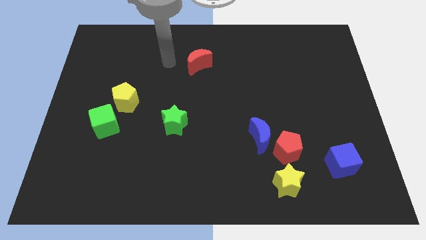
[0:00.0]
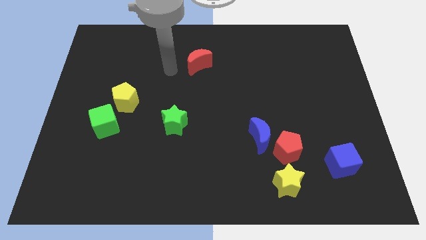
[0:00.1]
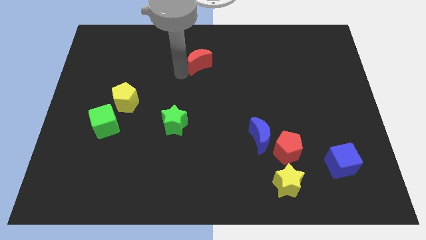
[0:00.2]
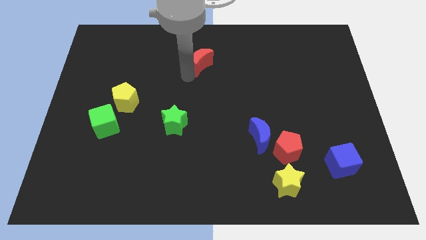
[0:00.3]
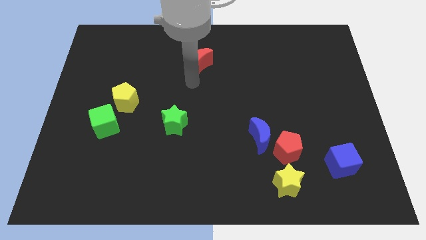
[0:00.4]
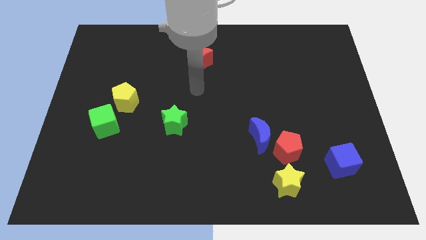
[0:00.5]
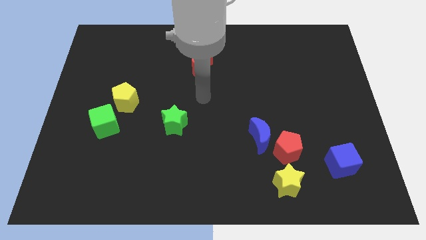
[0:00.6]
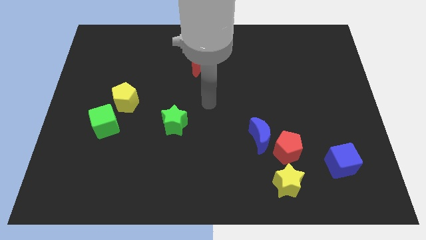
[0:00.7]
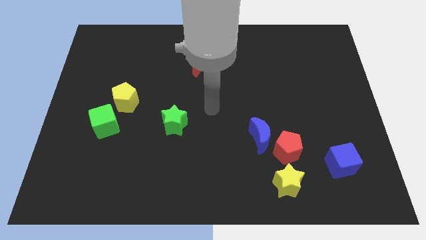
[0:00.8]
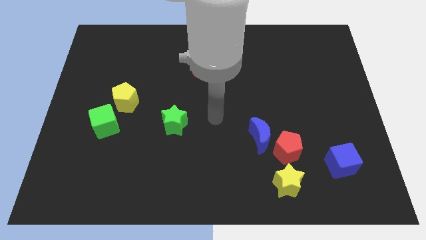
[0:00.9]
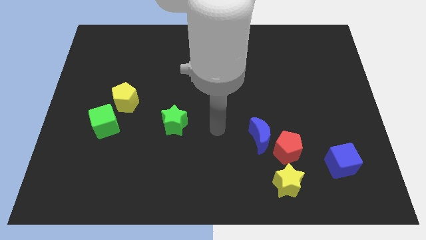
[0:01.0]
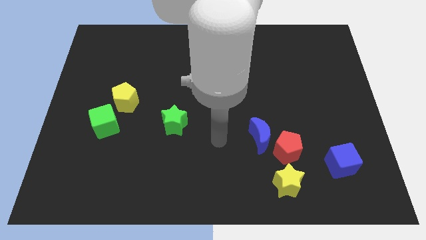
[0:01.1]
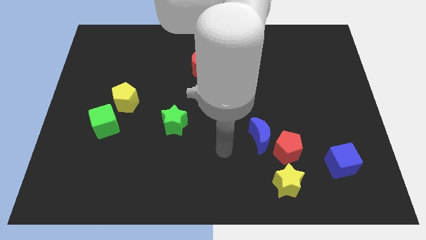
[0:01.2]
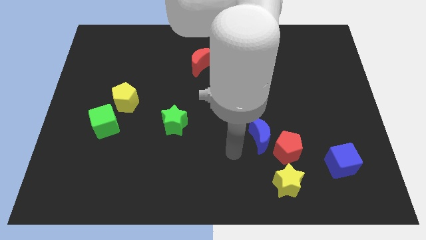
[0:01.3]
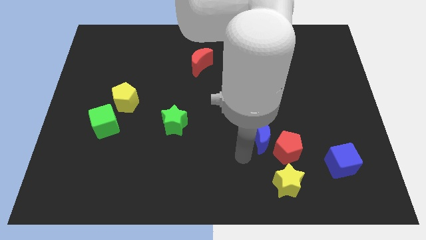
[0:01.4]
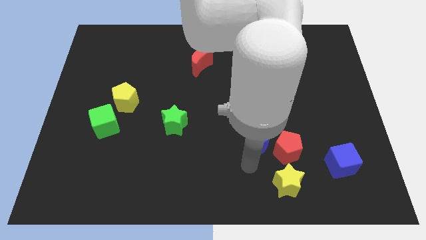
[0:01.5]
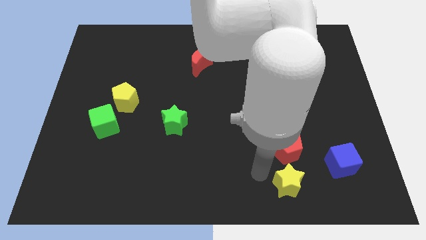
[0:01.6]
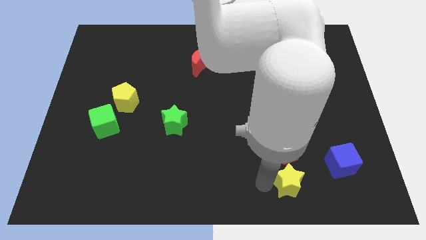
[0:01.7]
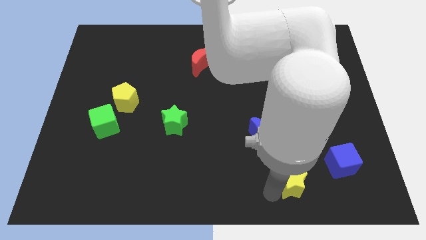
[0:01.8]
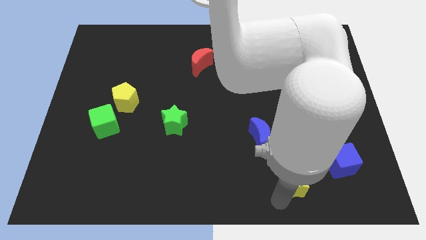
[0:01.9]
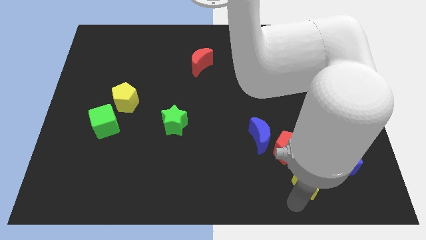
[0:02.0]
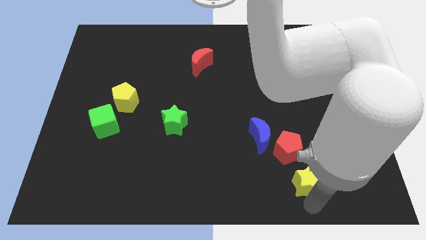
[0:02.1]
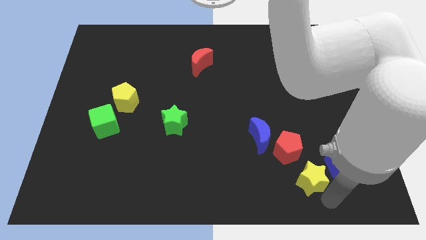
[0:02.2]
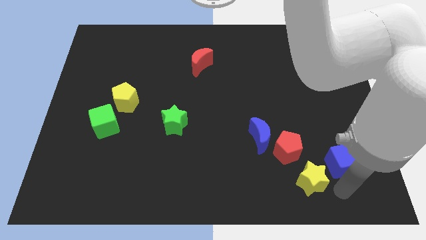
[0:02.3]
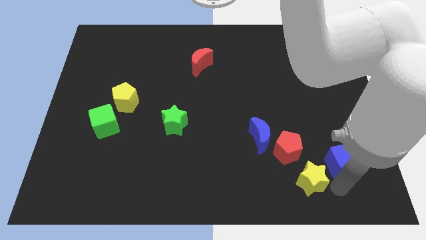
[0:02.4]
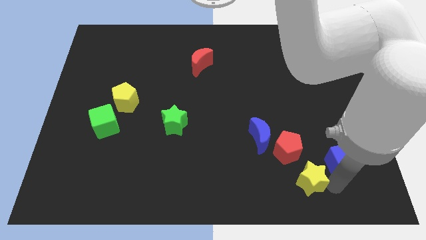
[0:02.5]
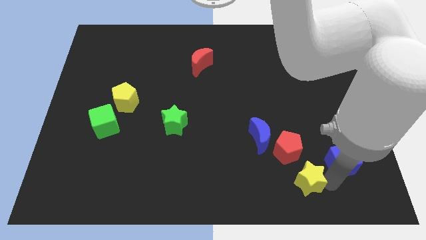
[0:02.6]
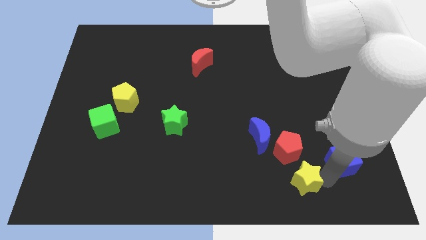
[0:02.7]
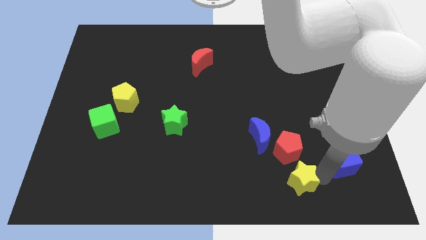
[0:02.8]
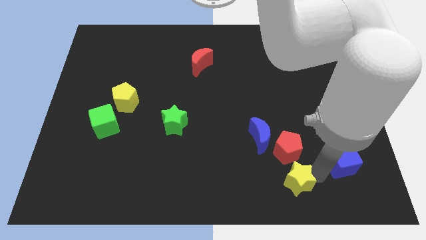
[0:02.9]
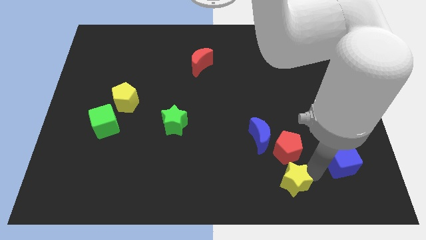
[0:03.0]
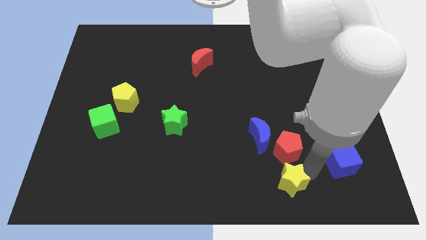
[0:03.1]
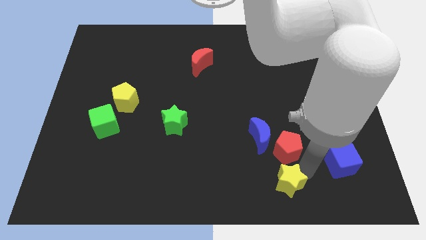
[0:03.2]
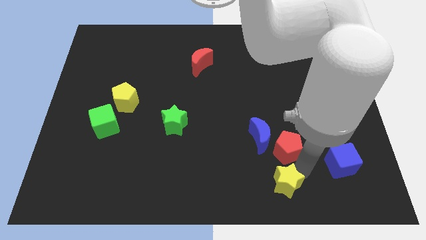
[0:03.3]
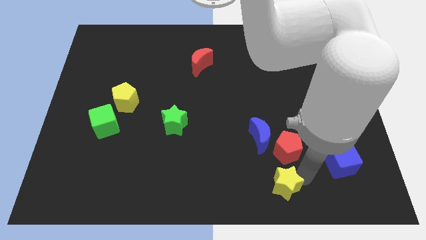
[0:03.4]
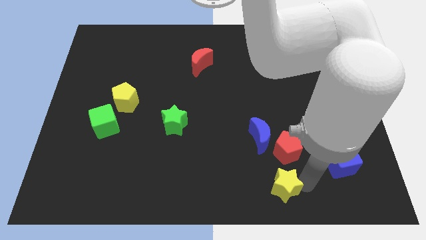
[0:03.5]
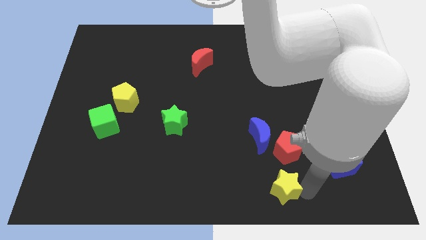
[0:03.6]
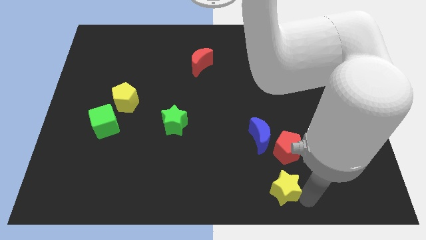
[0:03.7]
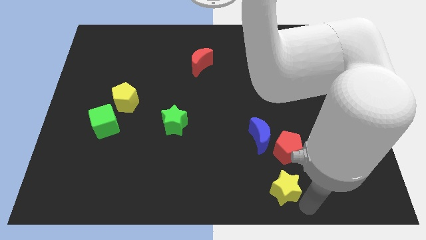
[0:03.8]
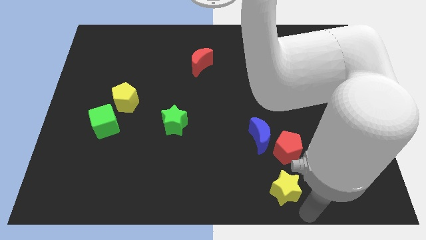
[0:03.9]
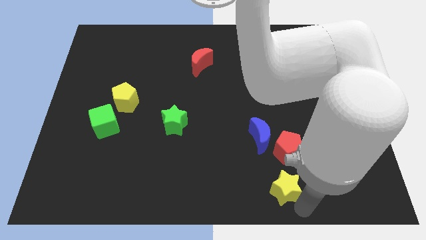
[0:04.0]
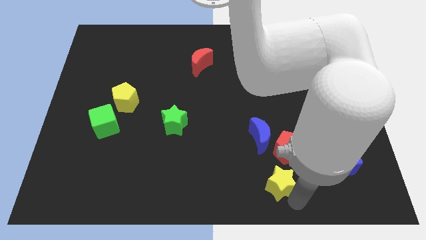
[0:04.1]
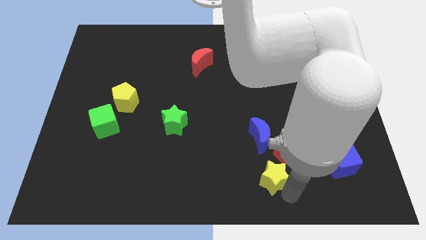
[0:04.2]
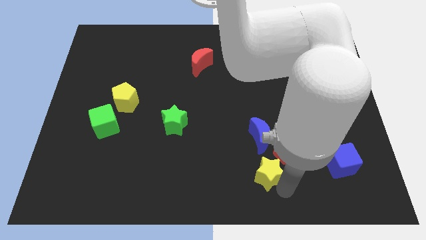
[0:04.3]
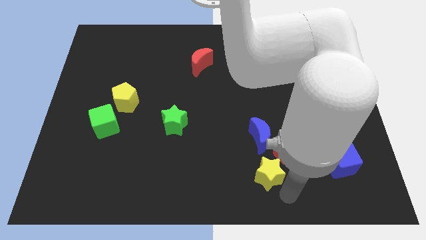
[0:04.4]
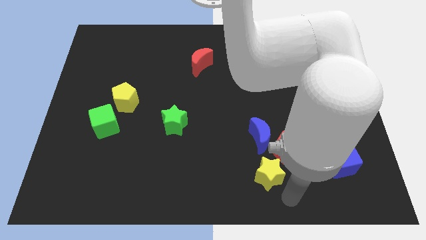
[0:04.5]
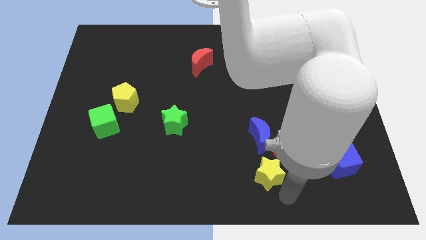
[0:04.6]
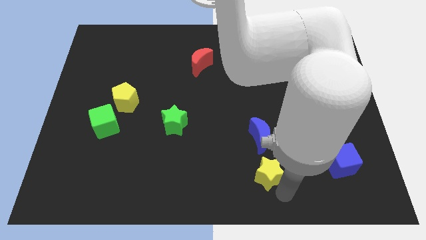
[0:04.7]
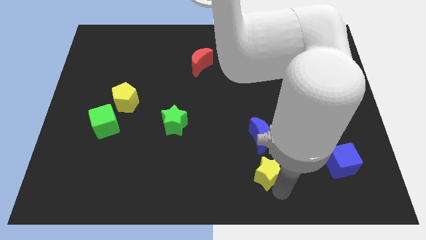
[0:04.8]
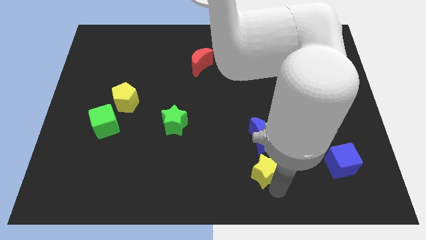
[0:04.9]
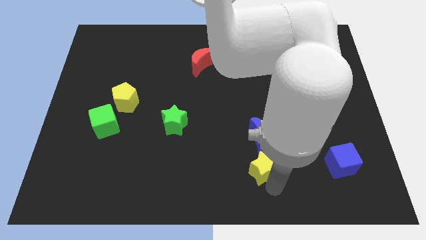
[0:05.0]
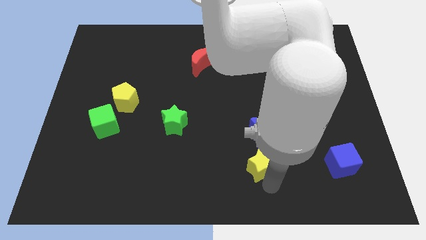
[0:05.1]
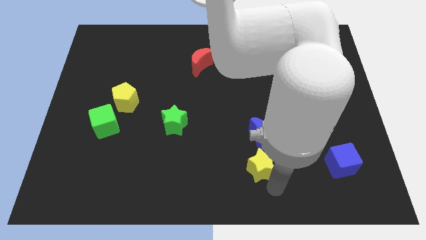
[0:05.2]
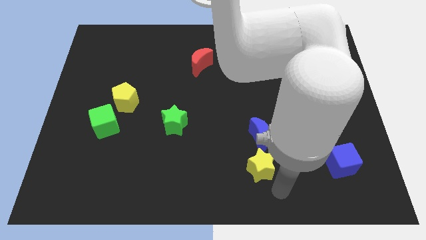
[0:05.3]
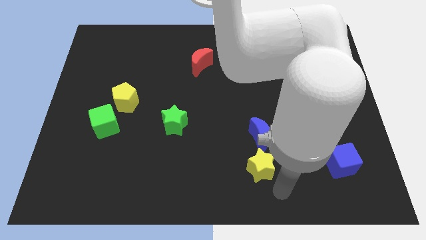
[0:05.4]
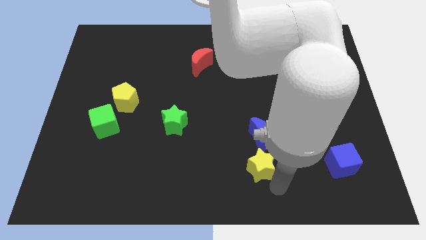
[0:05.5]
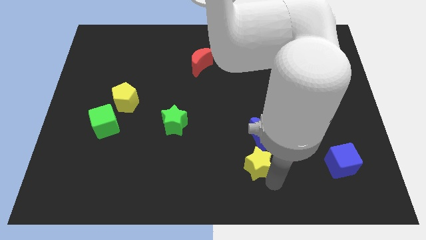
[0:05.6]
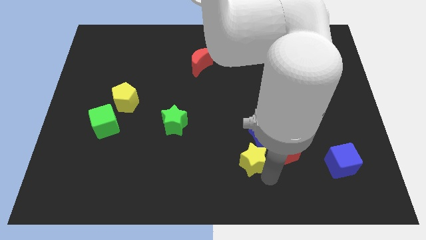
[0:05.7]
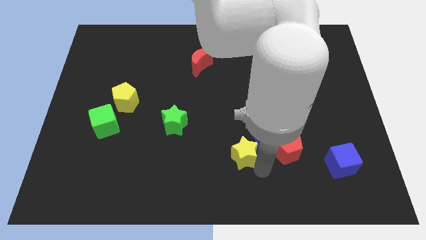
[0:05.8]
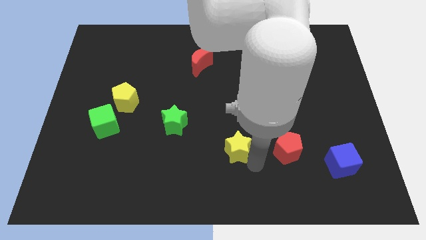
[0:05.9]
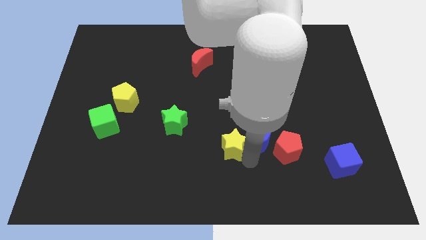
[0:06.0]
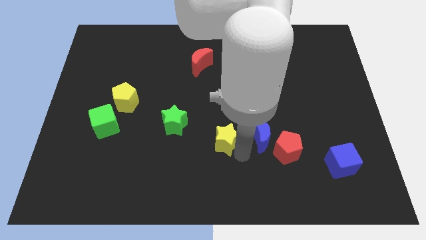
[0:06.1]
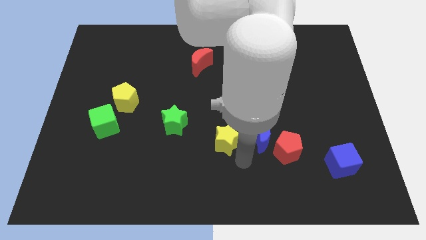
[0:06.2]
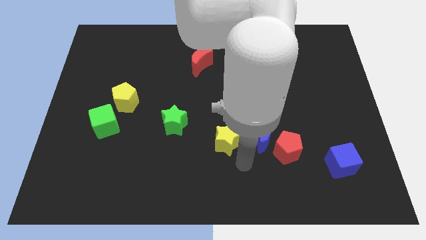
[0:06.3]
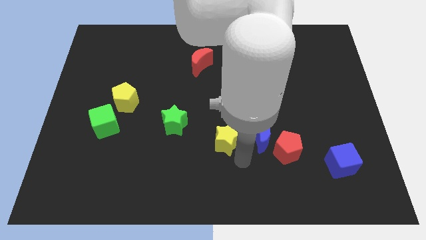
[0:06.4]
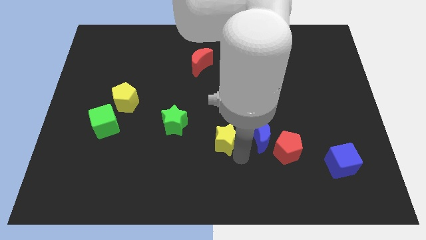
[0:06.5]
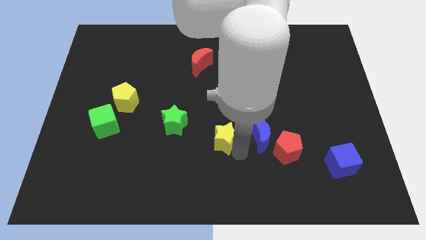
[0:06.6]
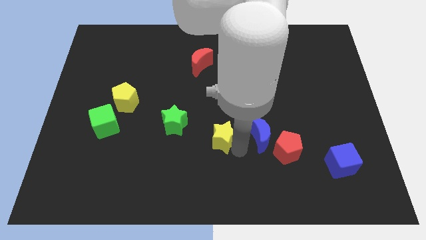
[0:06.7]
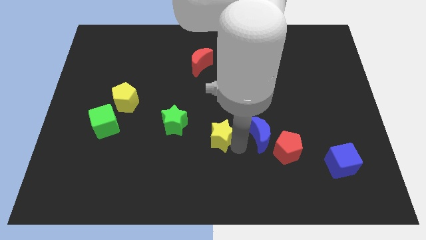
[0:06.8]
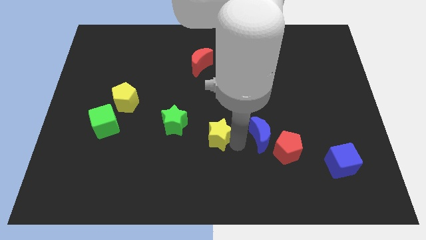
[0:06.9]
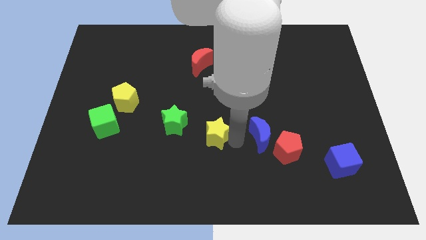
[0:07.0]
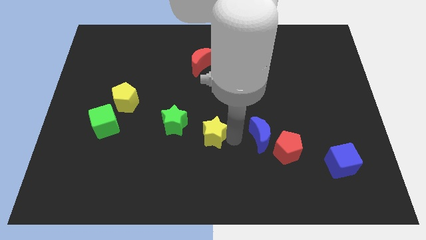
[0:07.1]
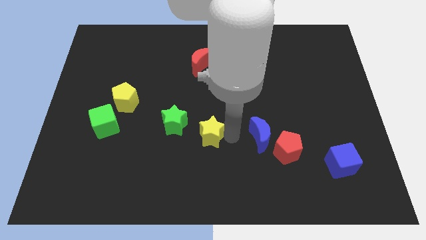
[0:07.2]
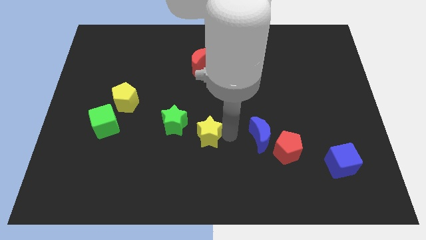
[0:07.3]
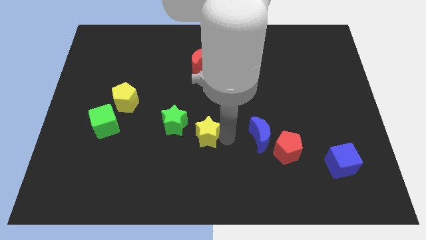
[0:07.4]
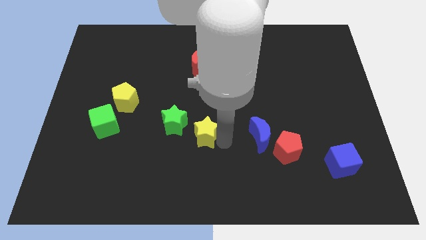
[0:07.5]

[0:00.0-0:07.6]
push the yellow star up and to the left

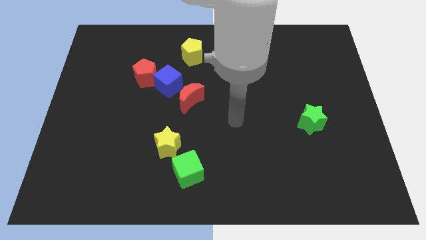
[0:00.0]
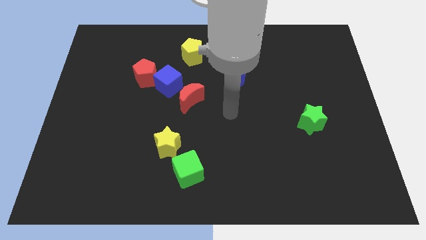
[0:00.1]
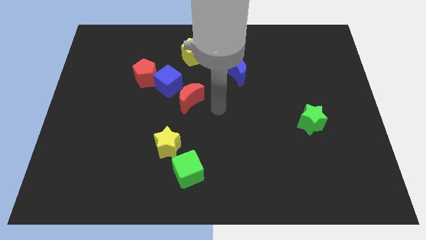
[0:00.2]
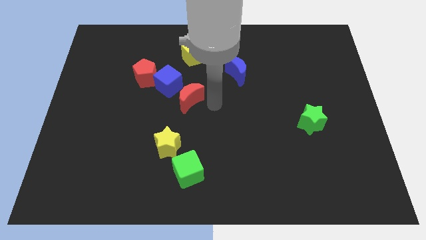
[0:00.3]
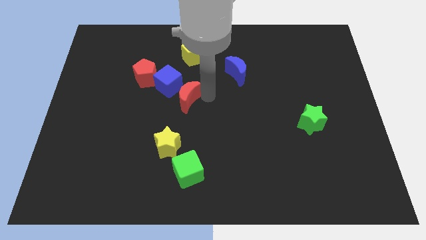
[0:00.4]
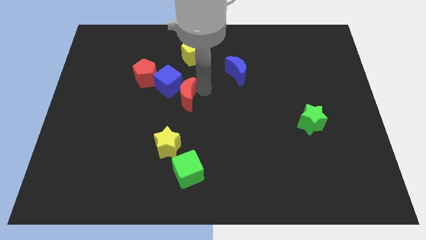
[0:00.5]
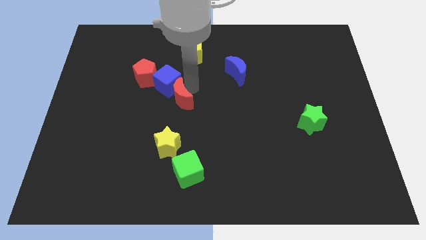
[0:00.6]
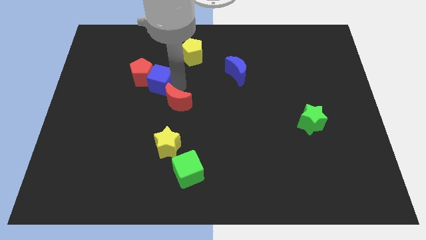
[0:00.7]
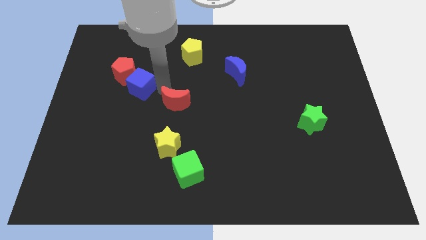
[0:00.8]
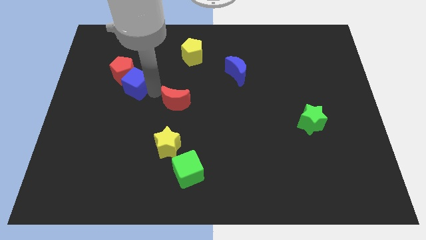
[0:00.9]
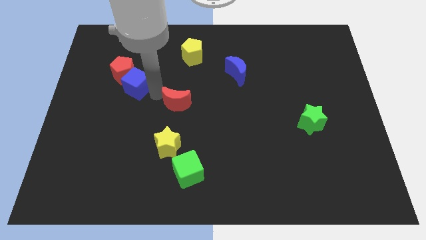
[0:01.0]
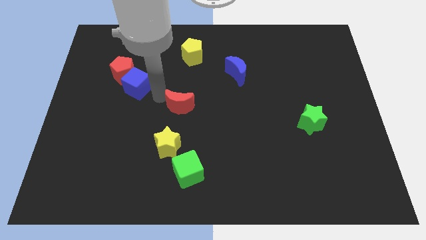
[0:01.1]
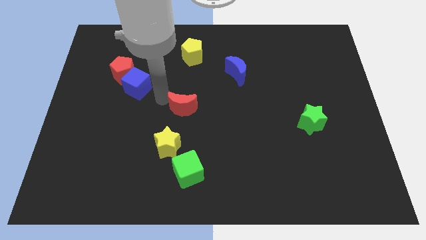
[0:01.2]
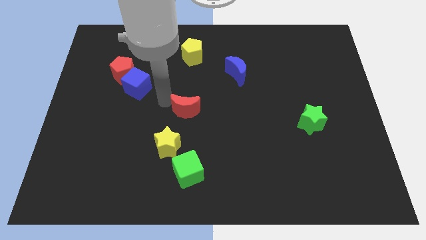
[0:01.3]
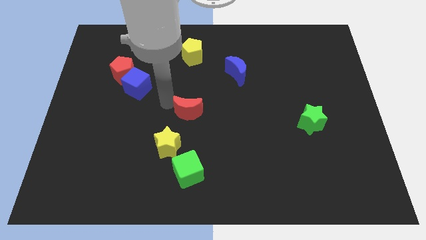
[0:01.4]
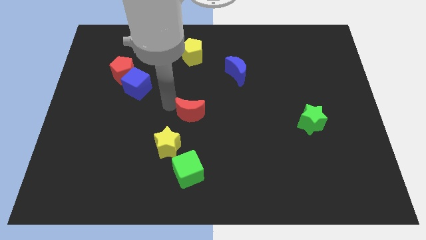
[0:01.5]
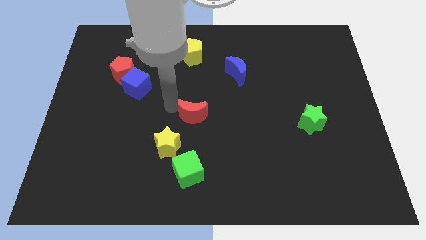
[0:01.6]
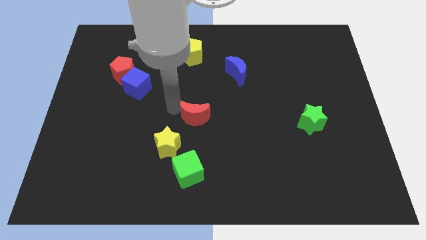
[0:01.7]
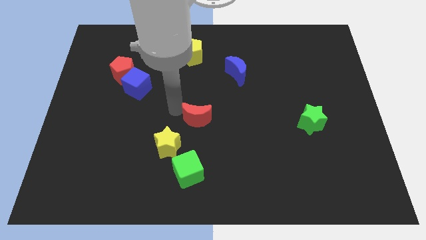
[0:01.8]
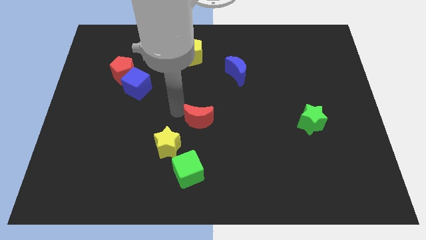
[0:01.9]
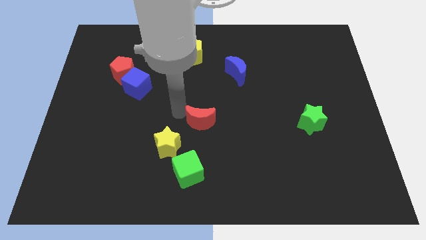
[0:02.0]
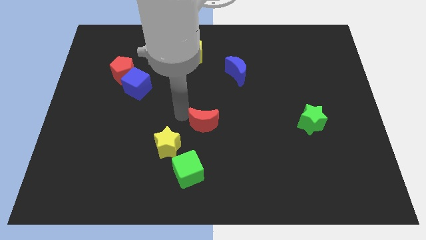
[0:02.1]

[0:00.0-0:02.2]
slightly slide the red moon downwards and right
